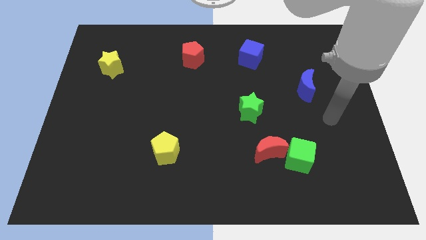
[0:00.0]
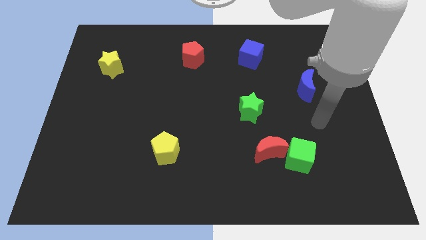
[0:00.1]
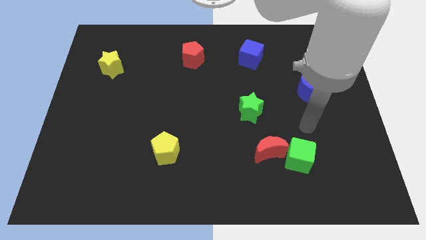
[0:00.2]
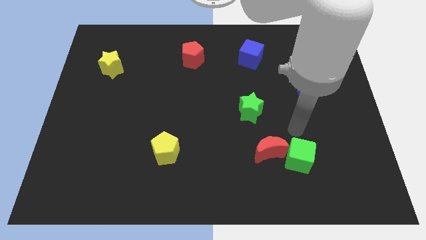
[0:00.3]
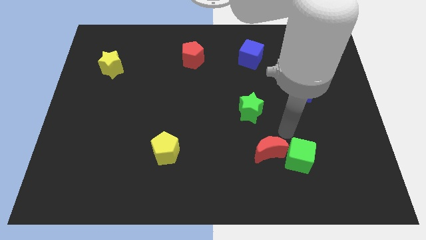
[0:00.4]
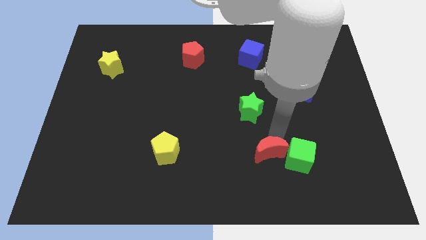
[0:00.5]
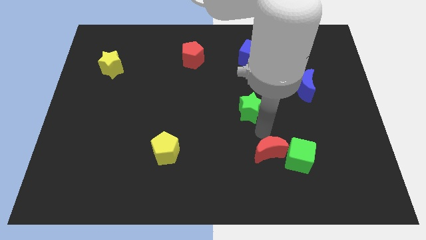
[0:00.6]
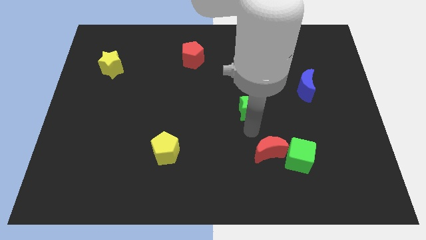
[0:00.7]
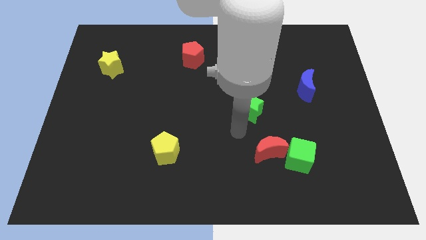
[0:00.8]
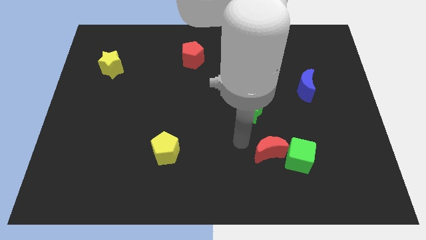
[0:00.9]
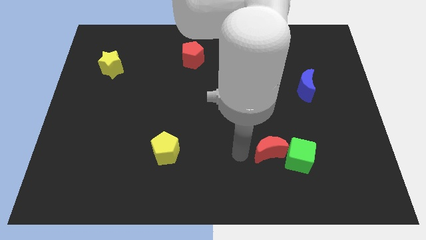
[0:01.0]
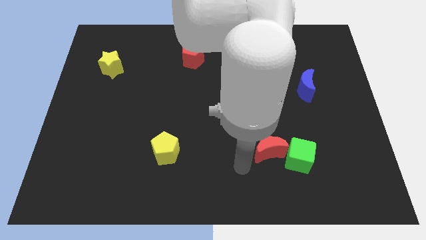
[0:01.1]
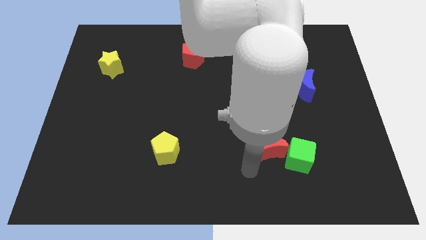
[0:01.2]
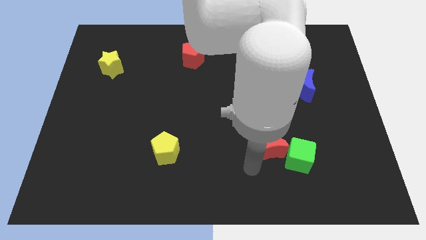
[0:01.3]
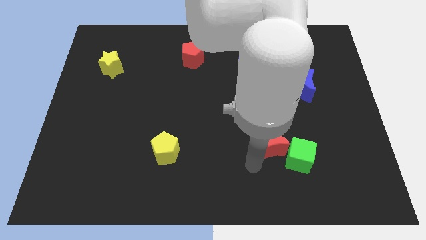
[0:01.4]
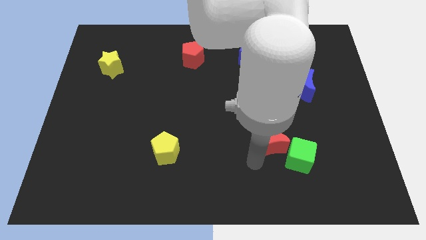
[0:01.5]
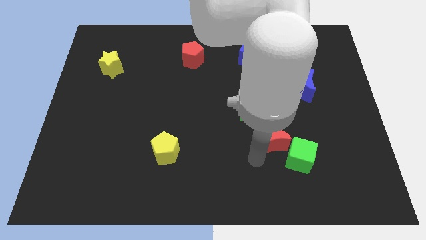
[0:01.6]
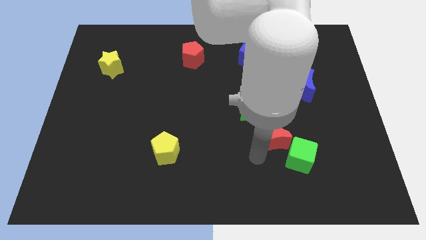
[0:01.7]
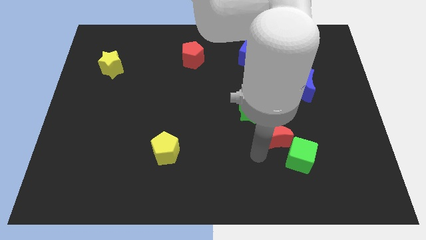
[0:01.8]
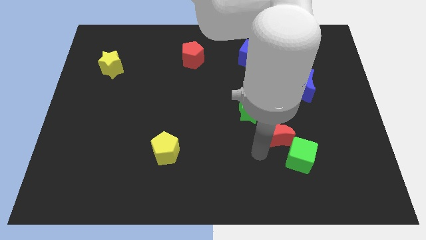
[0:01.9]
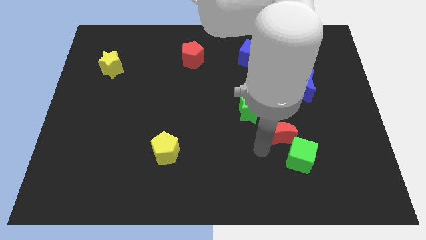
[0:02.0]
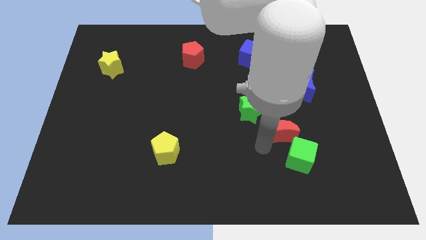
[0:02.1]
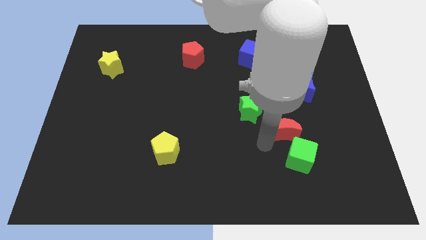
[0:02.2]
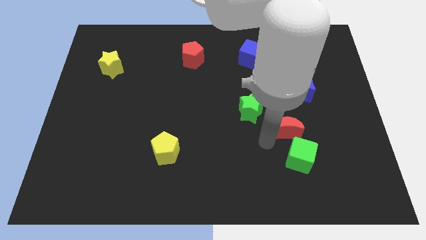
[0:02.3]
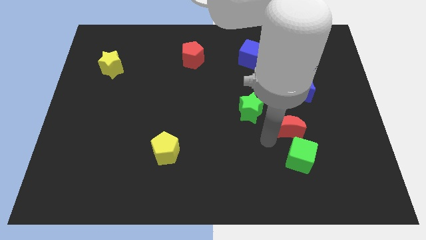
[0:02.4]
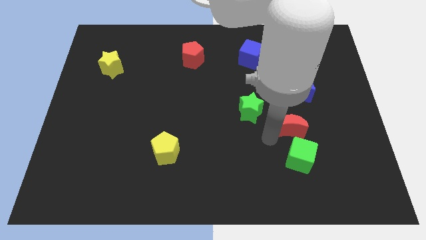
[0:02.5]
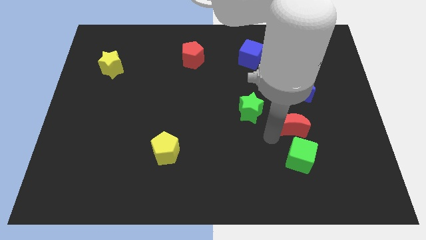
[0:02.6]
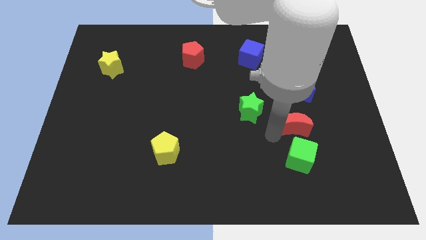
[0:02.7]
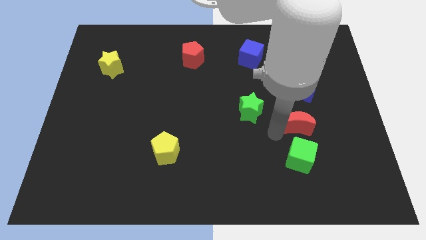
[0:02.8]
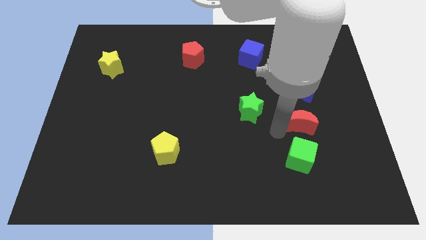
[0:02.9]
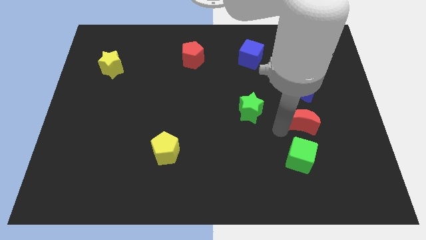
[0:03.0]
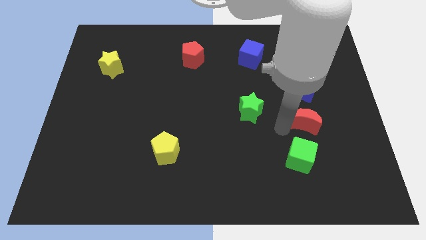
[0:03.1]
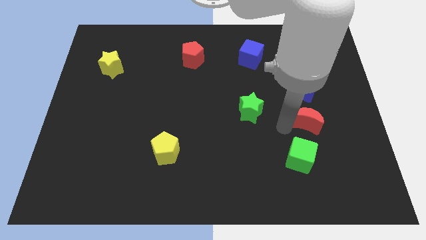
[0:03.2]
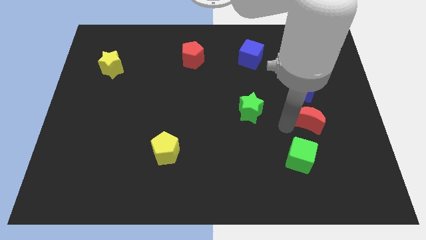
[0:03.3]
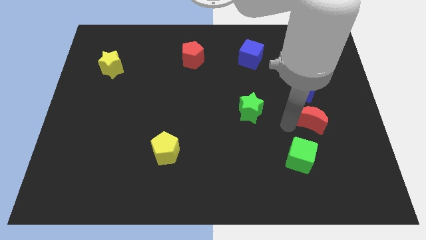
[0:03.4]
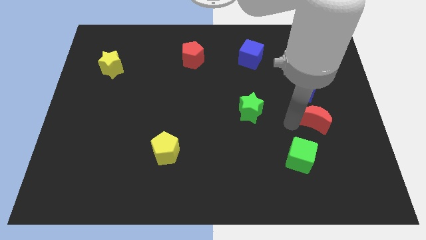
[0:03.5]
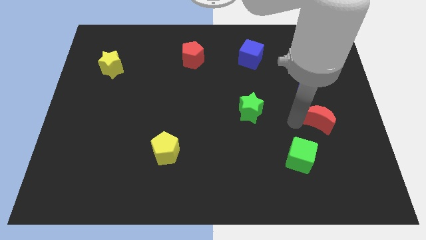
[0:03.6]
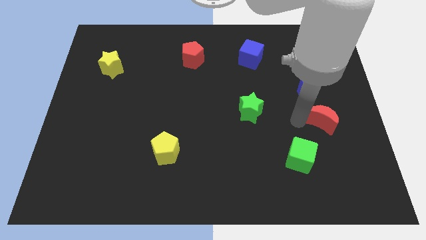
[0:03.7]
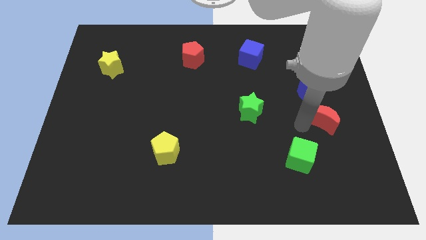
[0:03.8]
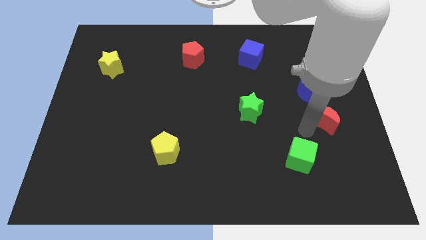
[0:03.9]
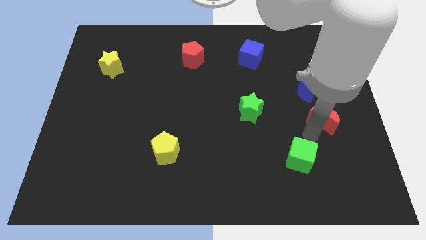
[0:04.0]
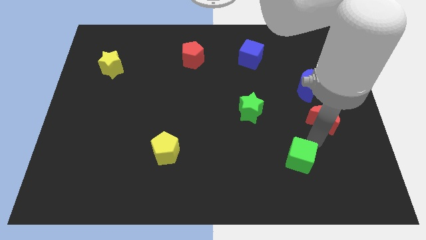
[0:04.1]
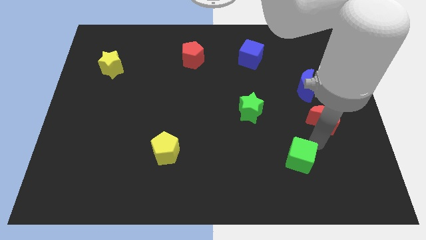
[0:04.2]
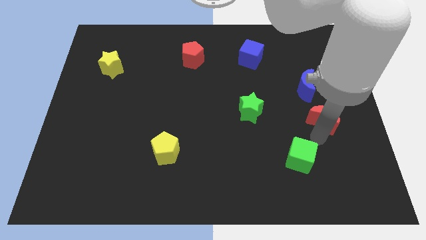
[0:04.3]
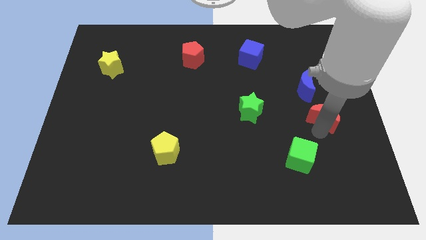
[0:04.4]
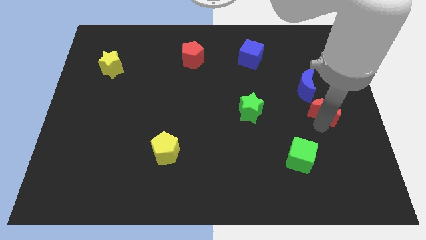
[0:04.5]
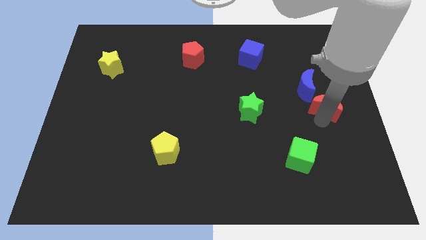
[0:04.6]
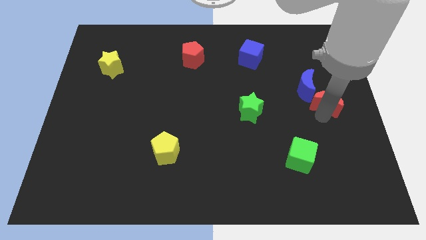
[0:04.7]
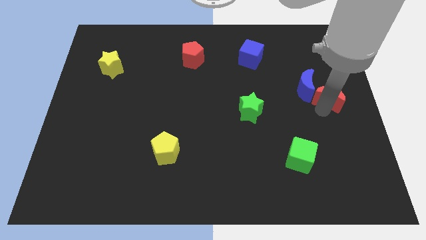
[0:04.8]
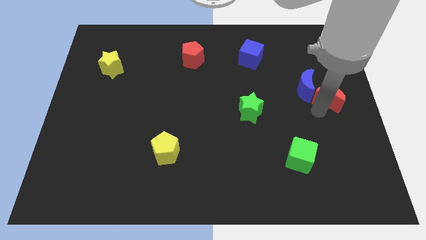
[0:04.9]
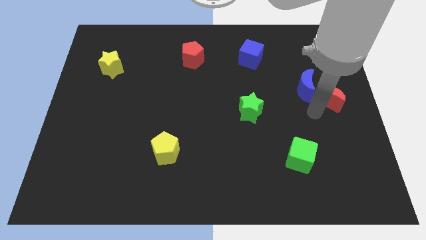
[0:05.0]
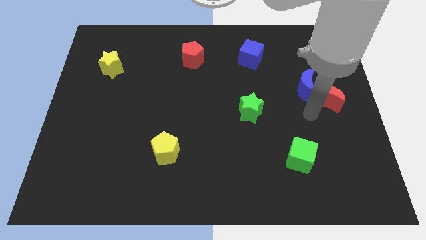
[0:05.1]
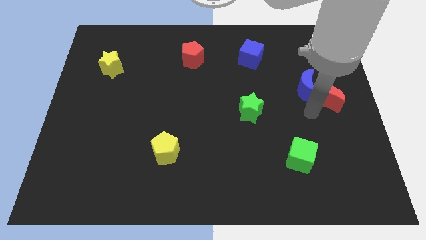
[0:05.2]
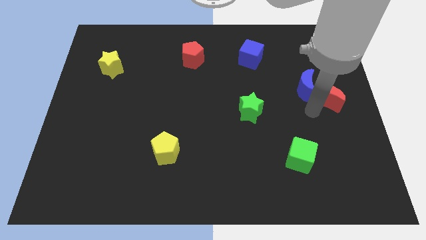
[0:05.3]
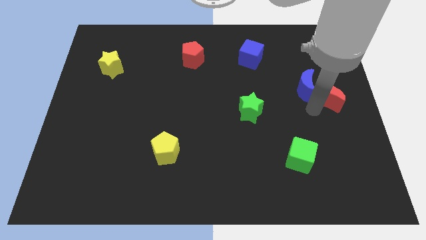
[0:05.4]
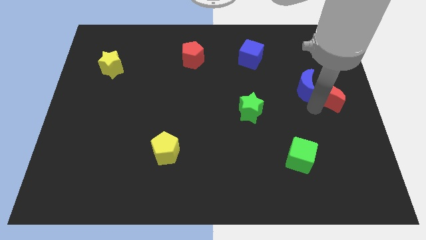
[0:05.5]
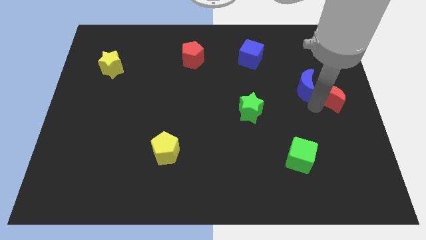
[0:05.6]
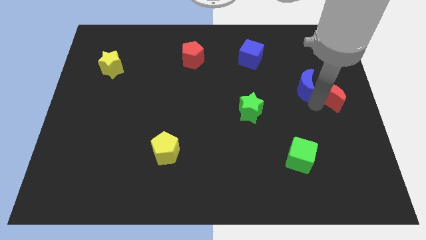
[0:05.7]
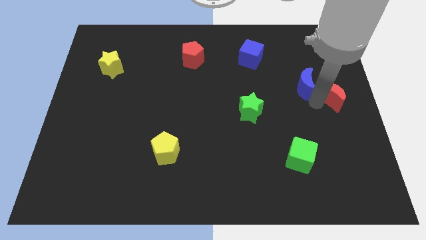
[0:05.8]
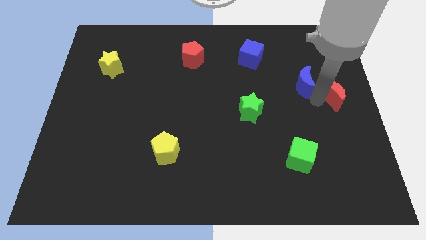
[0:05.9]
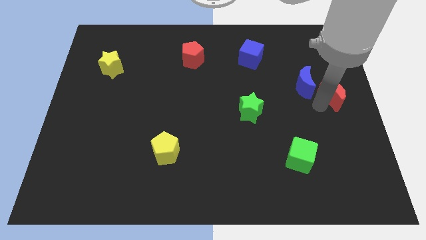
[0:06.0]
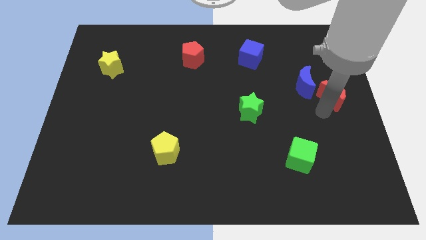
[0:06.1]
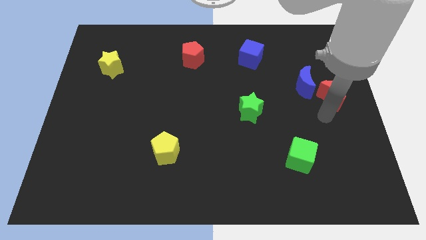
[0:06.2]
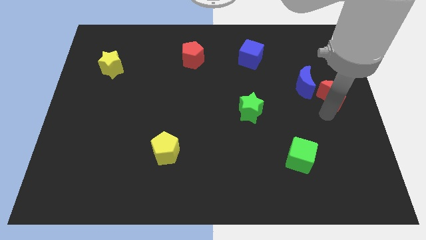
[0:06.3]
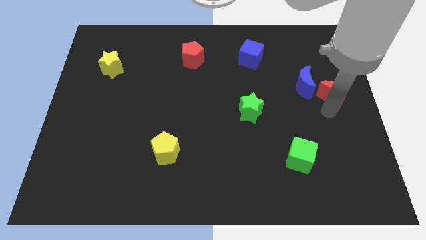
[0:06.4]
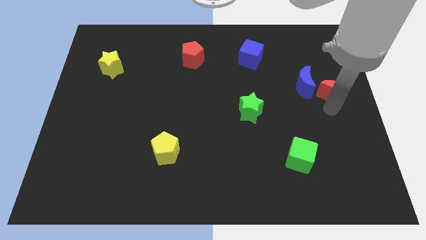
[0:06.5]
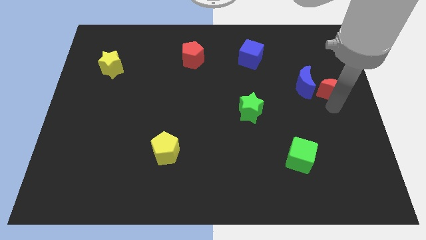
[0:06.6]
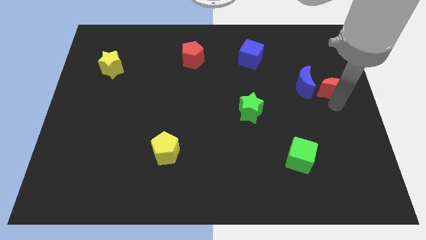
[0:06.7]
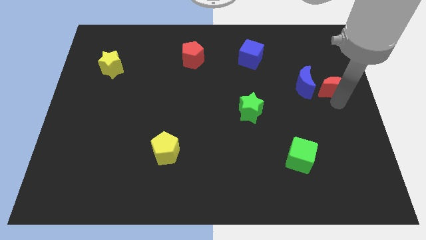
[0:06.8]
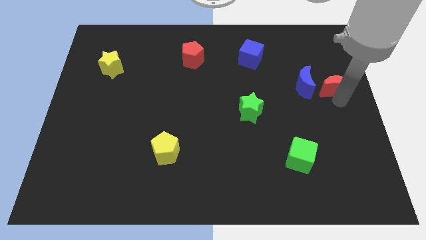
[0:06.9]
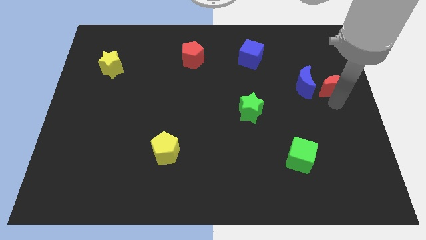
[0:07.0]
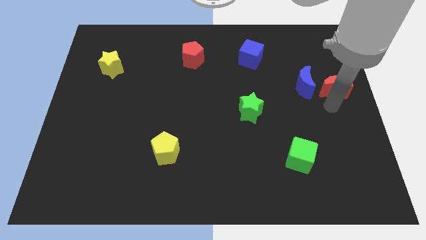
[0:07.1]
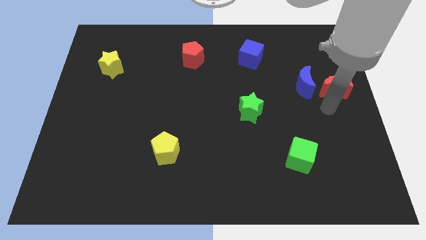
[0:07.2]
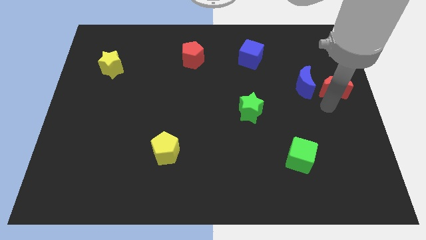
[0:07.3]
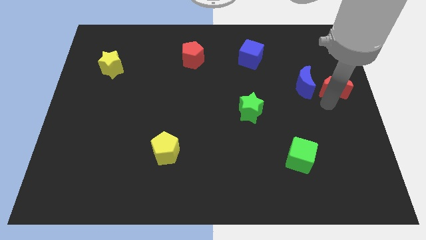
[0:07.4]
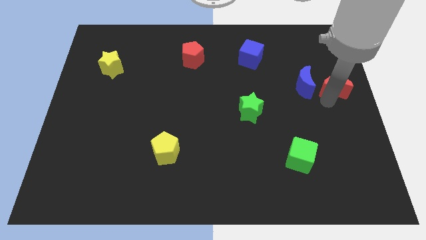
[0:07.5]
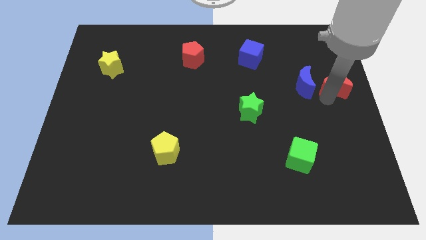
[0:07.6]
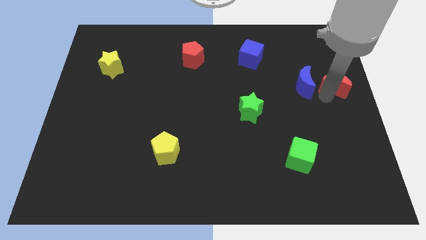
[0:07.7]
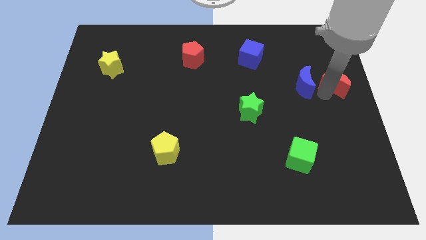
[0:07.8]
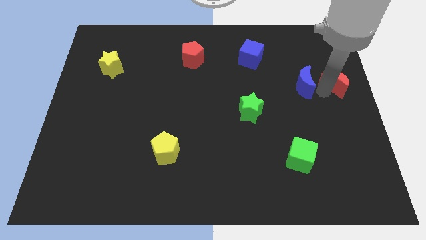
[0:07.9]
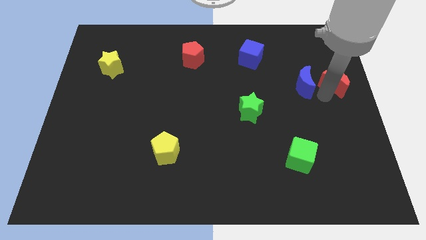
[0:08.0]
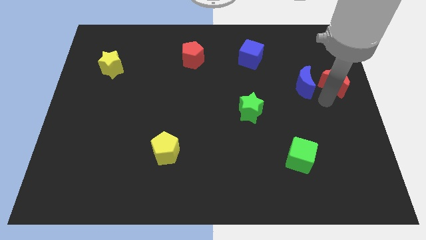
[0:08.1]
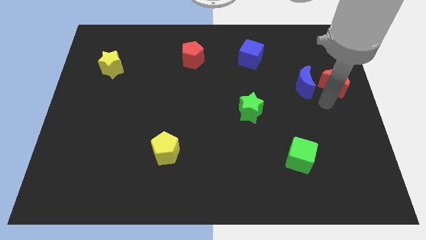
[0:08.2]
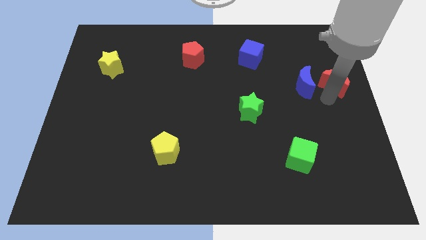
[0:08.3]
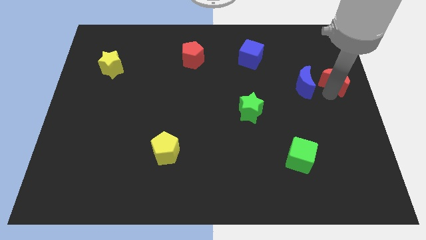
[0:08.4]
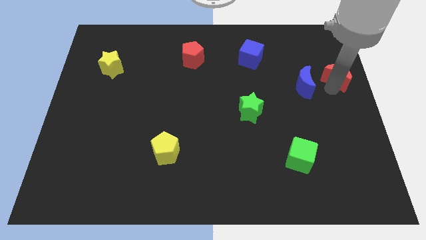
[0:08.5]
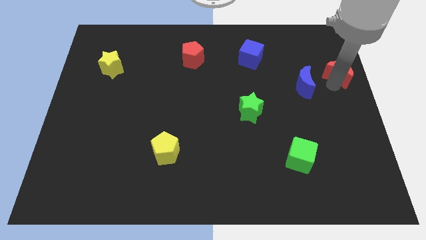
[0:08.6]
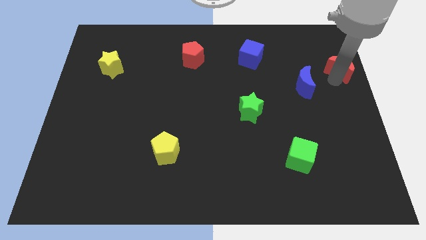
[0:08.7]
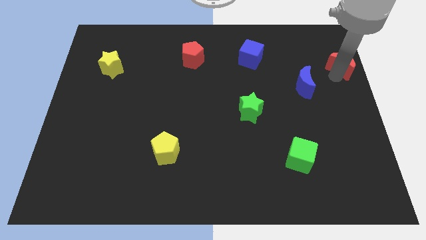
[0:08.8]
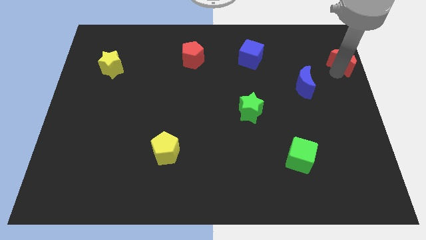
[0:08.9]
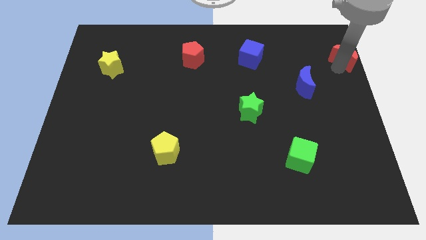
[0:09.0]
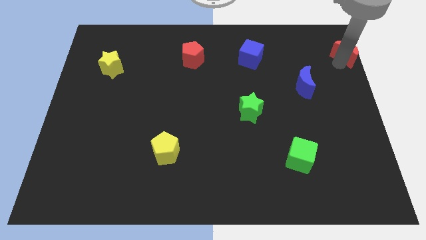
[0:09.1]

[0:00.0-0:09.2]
move the red moon to the top right of the board
